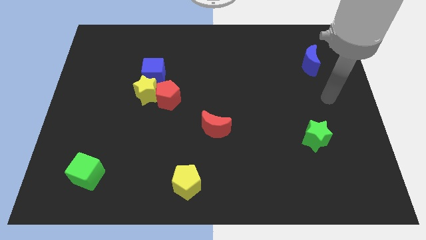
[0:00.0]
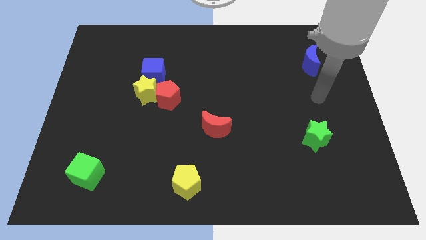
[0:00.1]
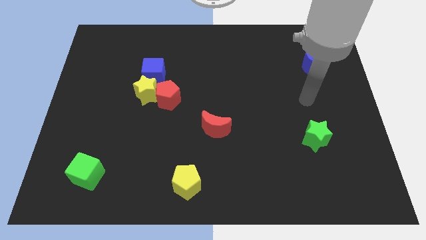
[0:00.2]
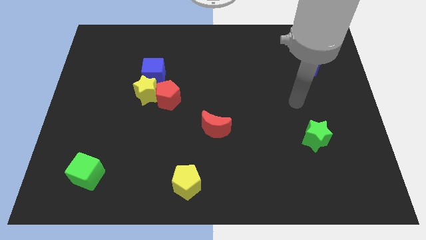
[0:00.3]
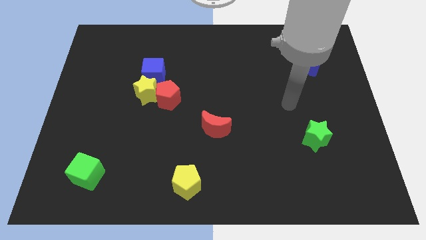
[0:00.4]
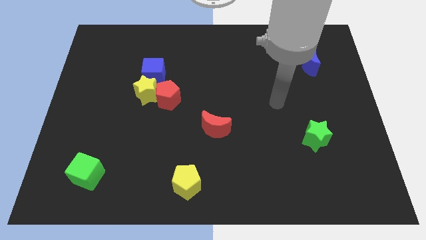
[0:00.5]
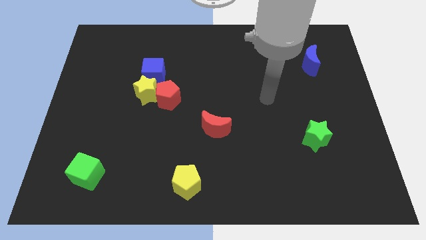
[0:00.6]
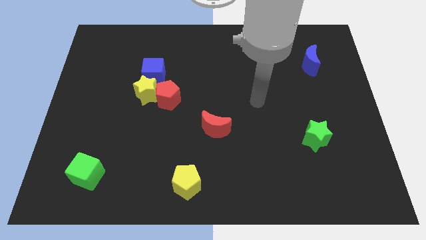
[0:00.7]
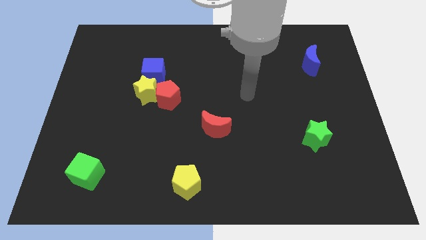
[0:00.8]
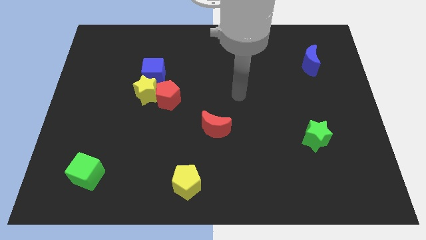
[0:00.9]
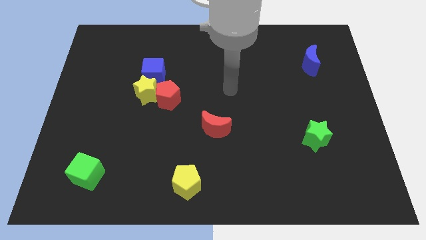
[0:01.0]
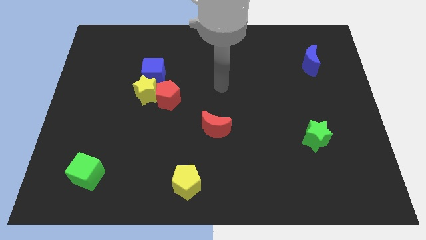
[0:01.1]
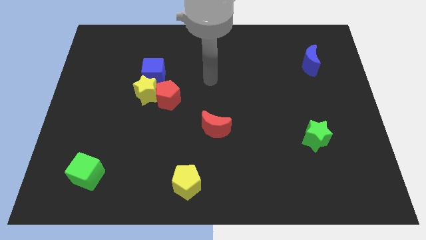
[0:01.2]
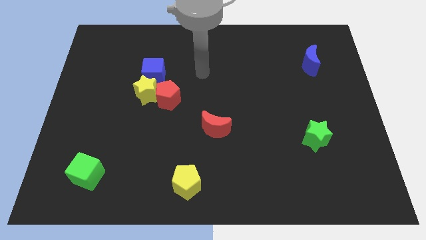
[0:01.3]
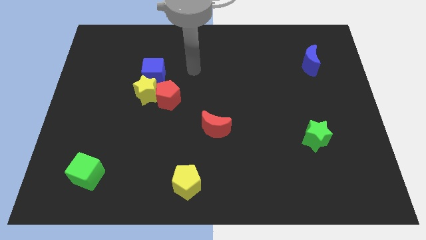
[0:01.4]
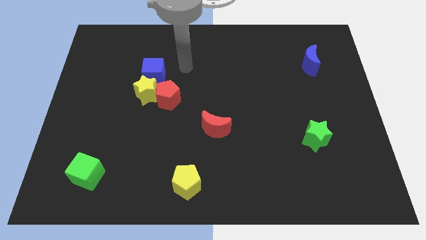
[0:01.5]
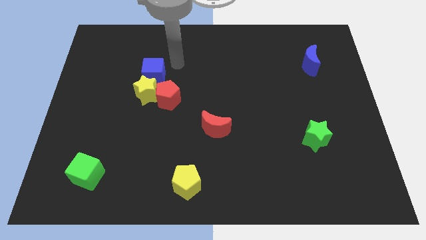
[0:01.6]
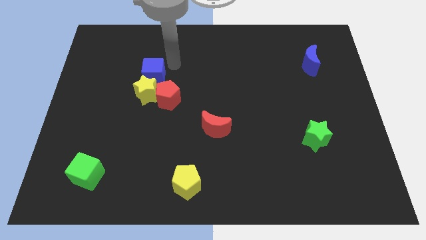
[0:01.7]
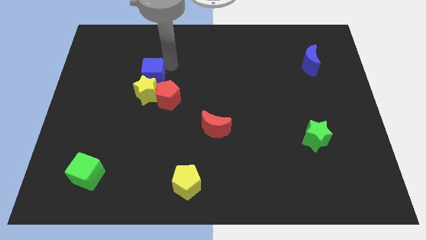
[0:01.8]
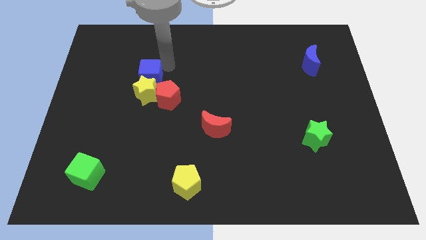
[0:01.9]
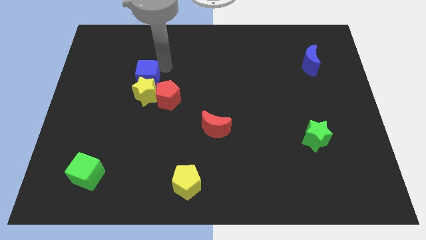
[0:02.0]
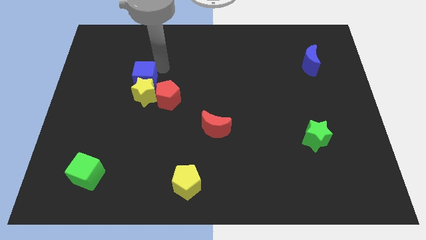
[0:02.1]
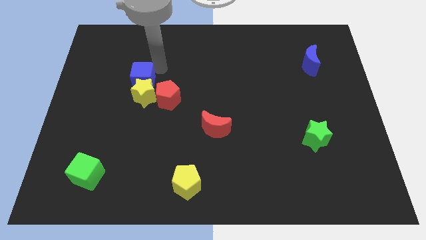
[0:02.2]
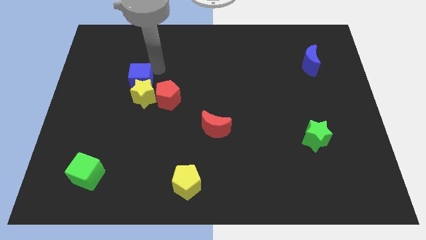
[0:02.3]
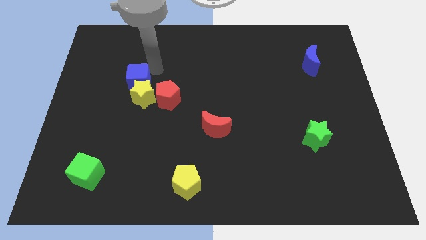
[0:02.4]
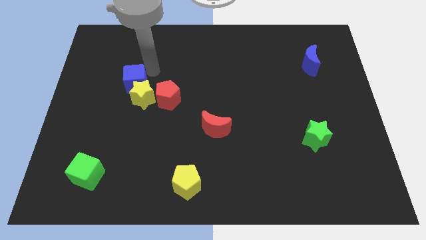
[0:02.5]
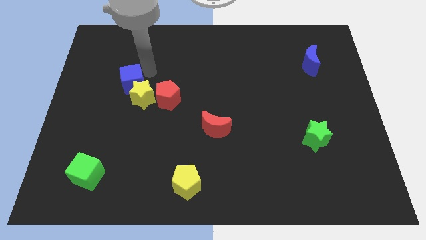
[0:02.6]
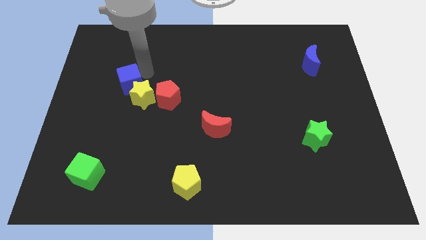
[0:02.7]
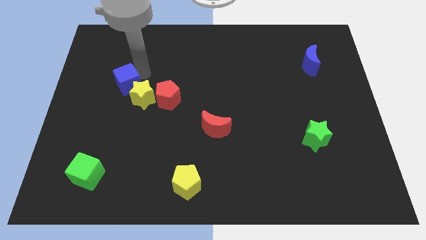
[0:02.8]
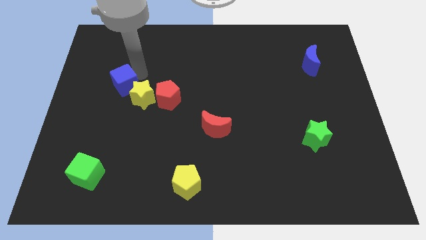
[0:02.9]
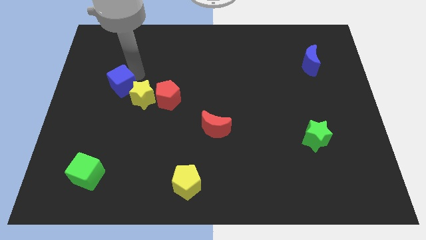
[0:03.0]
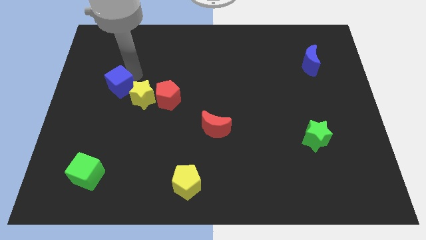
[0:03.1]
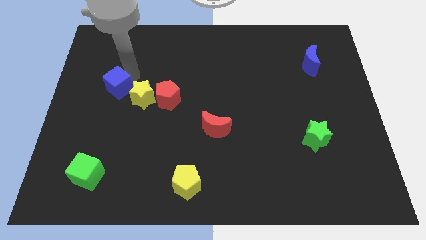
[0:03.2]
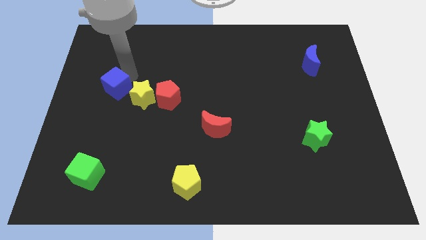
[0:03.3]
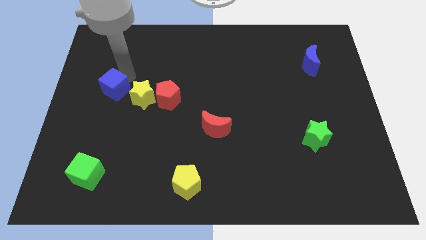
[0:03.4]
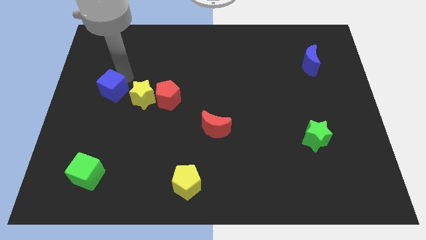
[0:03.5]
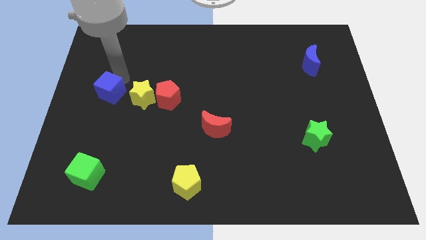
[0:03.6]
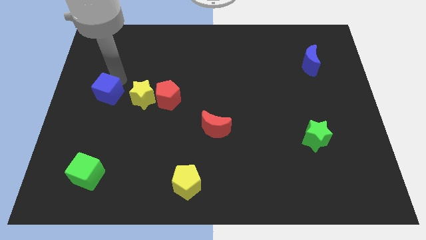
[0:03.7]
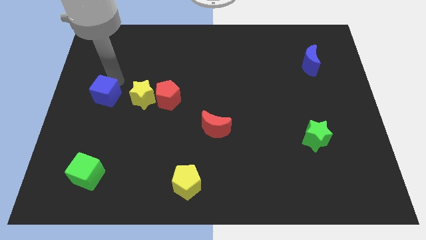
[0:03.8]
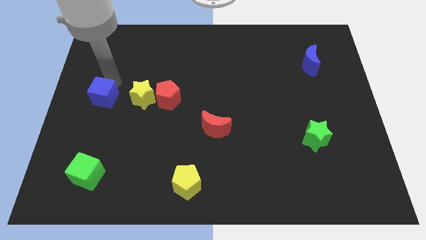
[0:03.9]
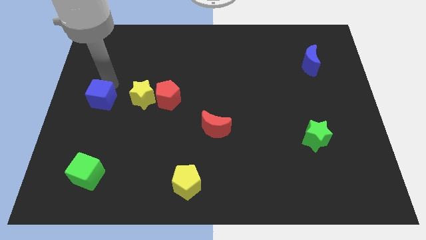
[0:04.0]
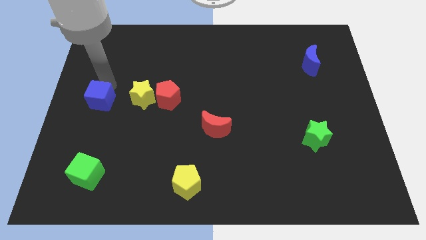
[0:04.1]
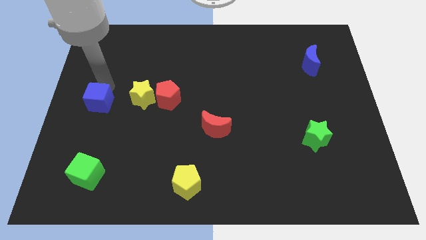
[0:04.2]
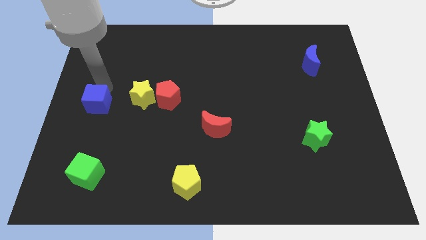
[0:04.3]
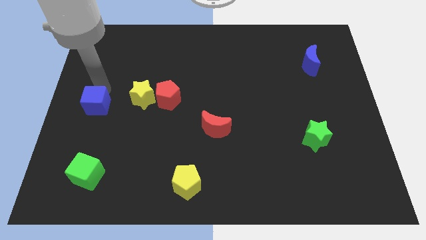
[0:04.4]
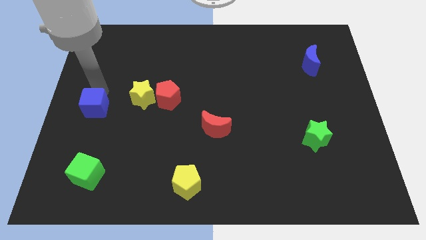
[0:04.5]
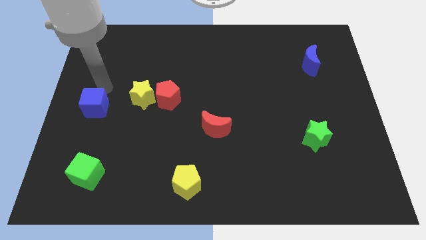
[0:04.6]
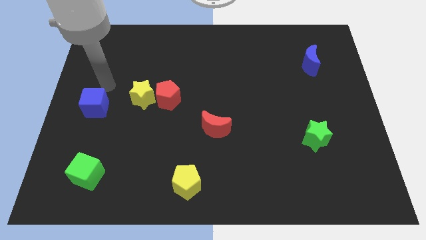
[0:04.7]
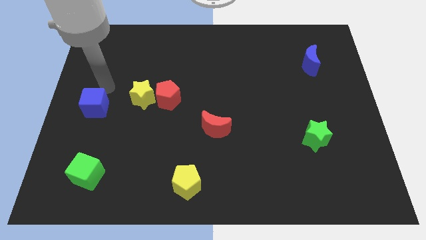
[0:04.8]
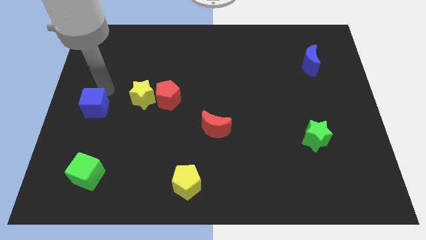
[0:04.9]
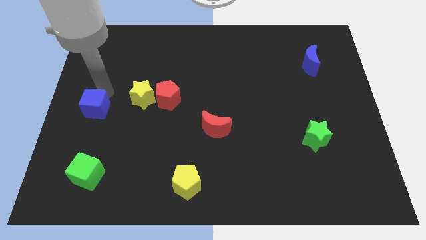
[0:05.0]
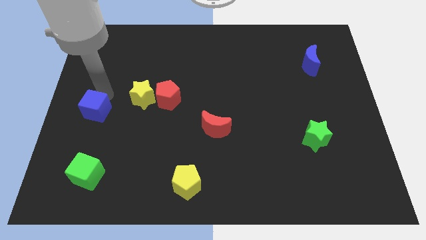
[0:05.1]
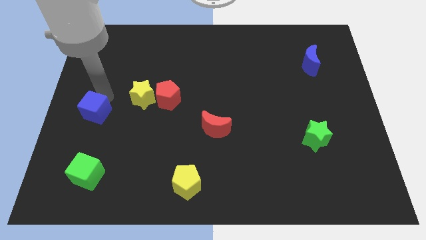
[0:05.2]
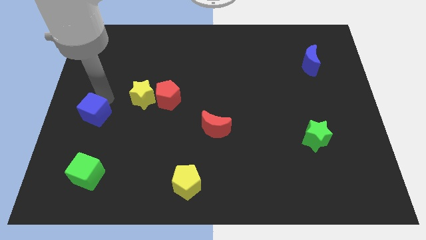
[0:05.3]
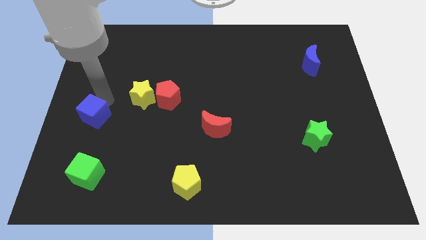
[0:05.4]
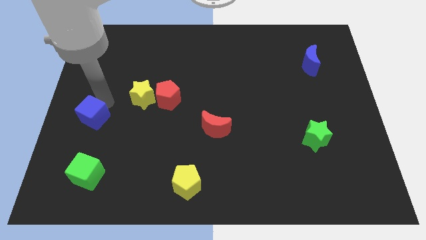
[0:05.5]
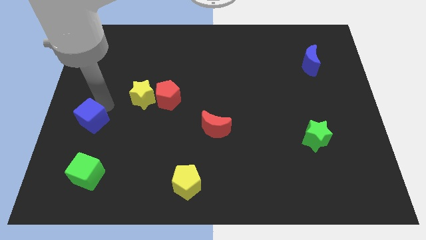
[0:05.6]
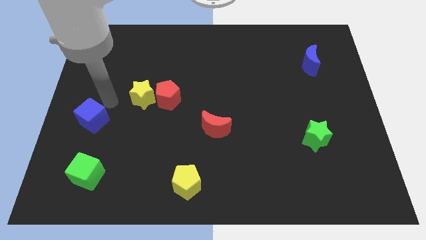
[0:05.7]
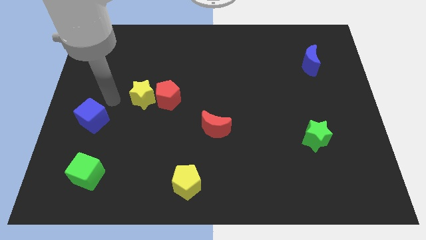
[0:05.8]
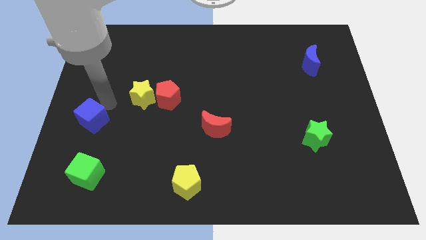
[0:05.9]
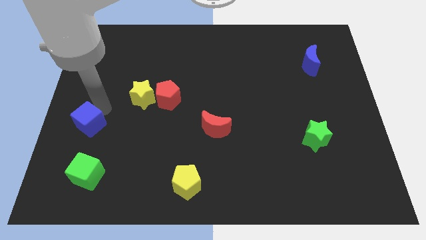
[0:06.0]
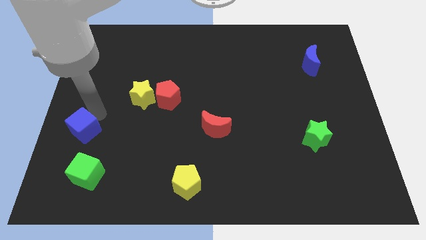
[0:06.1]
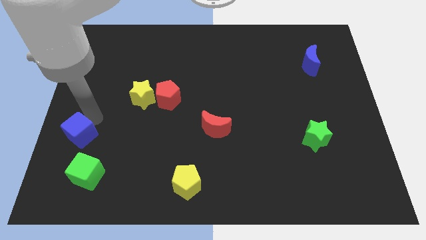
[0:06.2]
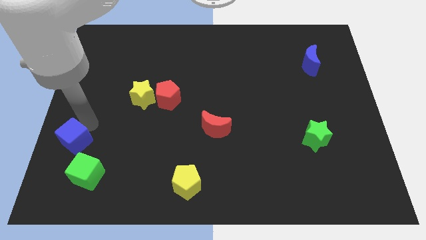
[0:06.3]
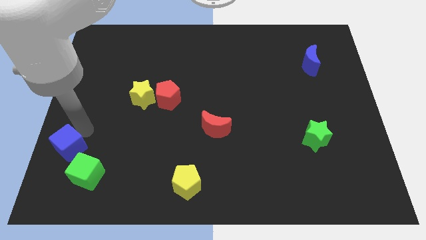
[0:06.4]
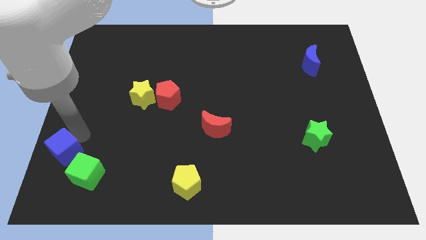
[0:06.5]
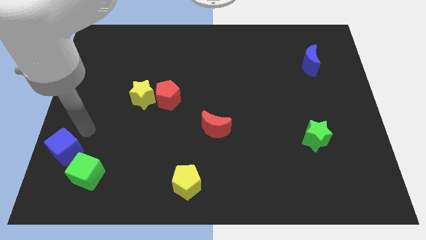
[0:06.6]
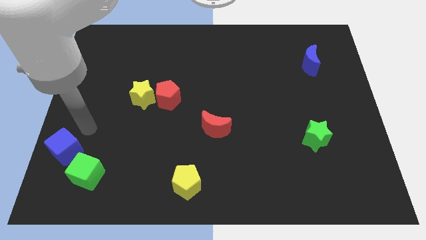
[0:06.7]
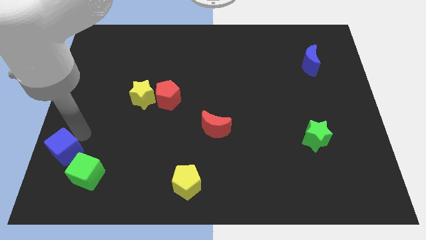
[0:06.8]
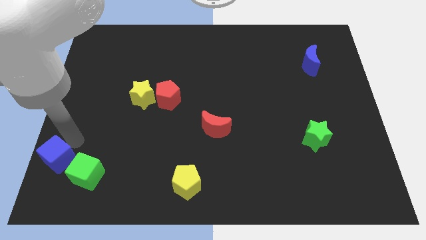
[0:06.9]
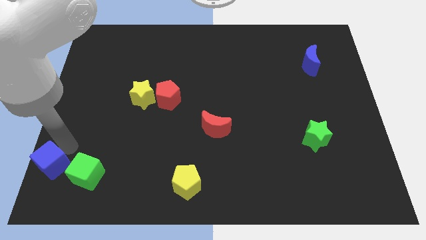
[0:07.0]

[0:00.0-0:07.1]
push the blue cube to the bottom left
